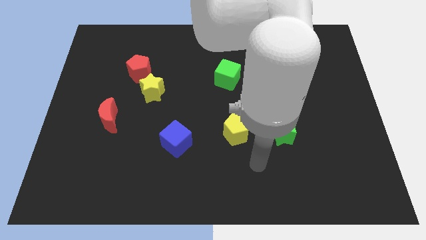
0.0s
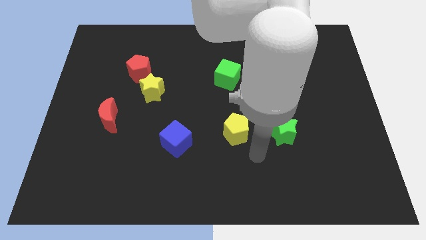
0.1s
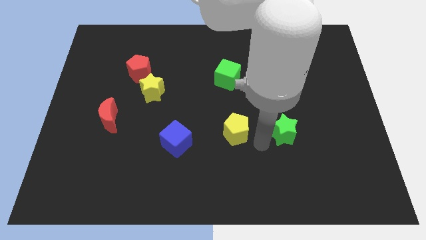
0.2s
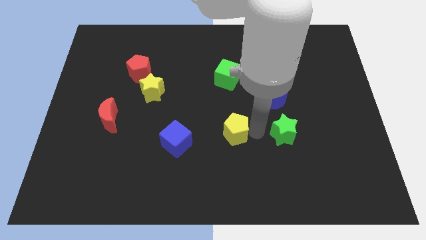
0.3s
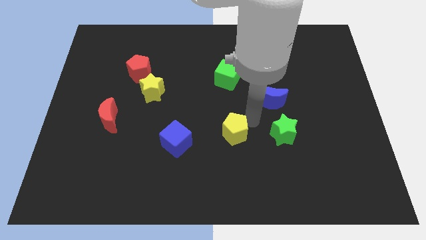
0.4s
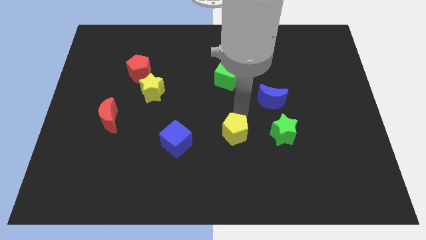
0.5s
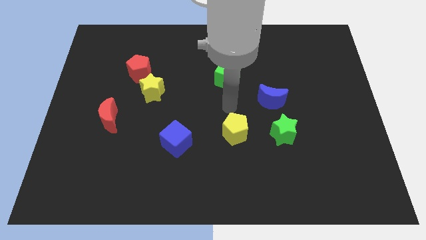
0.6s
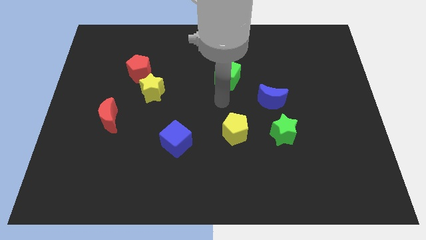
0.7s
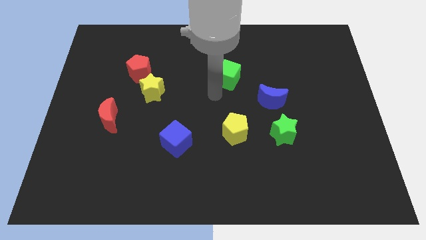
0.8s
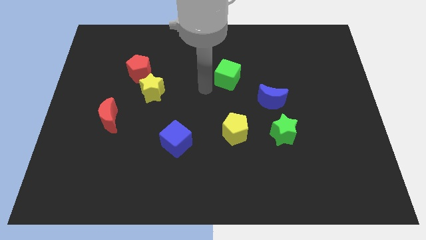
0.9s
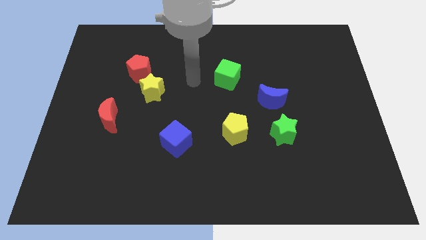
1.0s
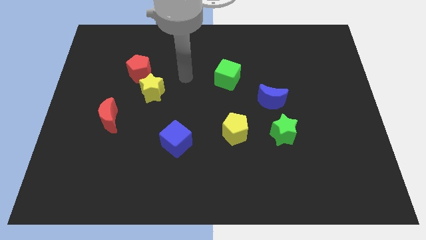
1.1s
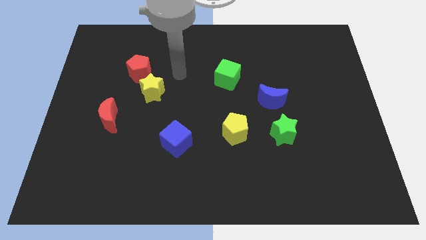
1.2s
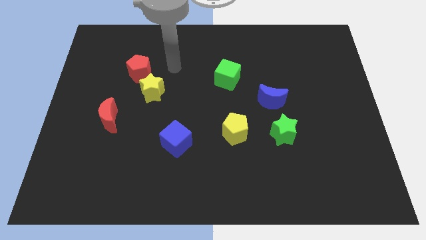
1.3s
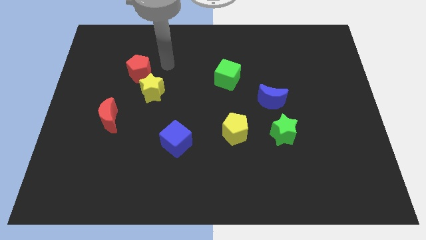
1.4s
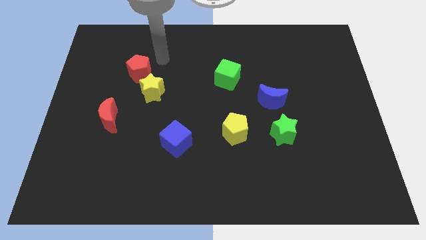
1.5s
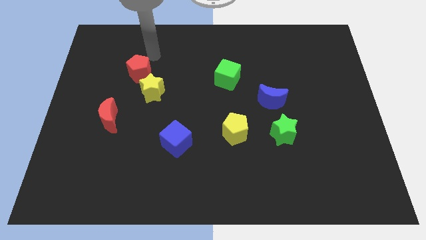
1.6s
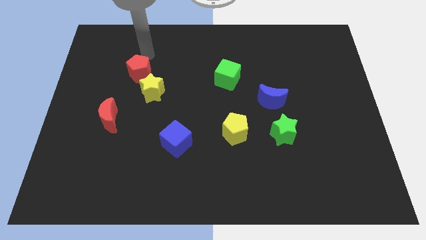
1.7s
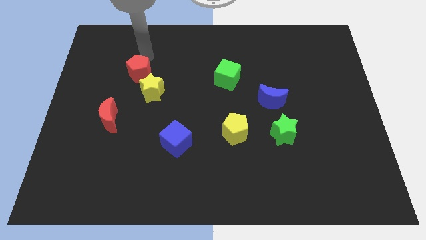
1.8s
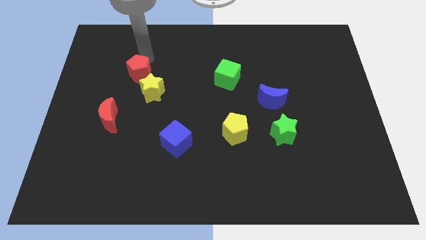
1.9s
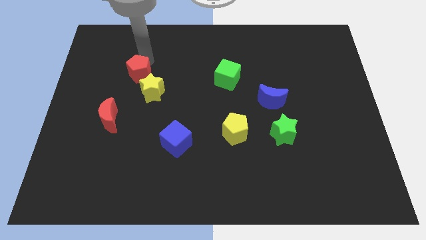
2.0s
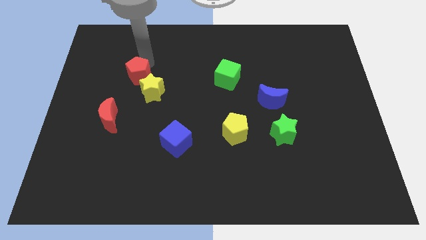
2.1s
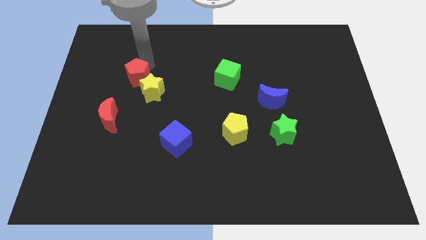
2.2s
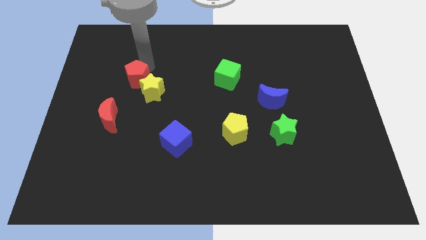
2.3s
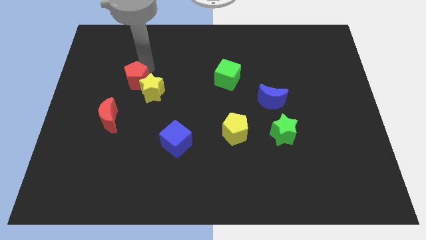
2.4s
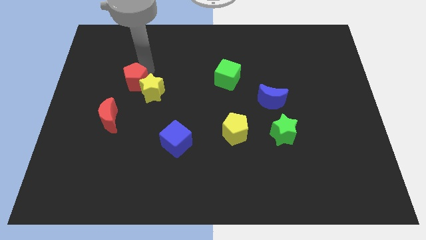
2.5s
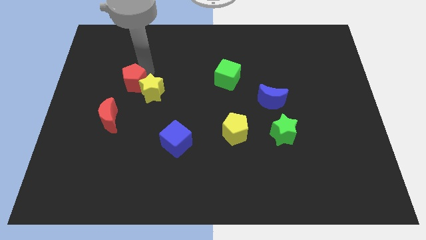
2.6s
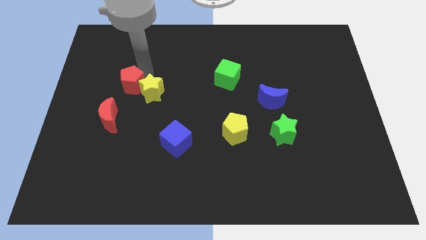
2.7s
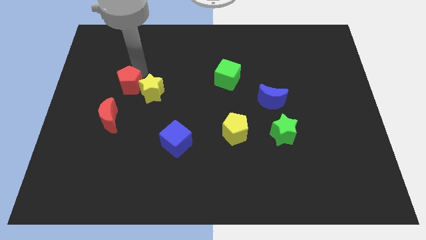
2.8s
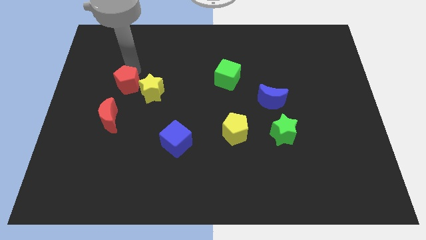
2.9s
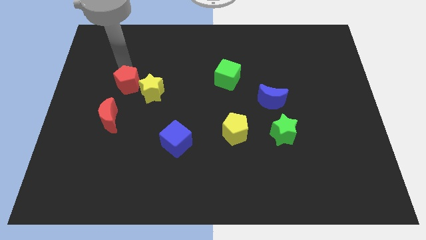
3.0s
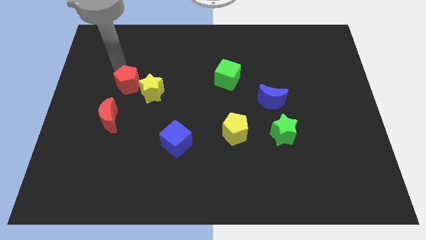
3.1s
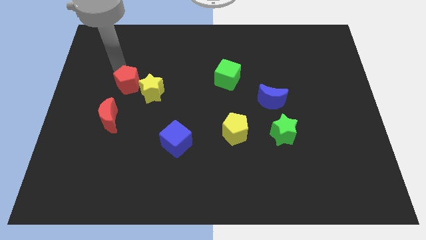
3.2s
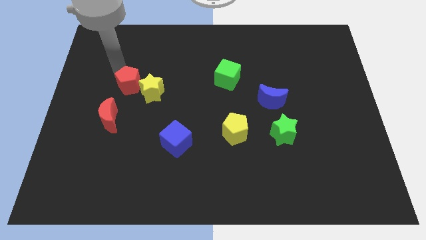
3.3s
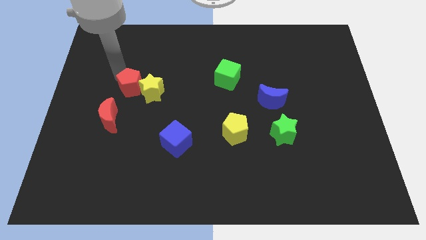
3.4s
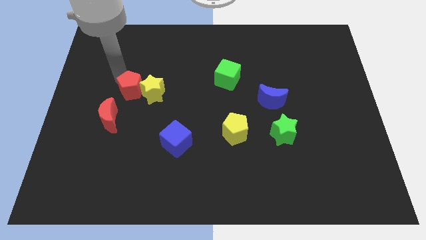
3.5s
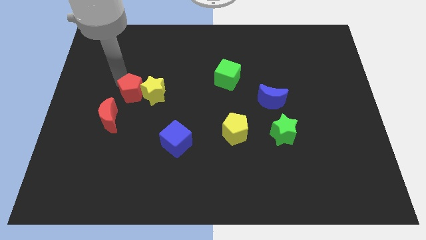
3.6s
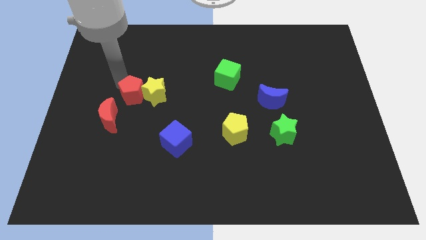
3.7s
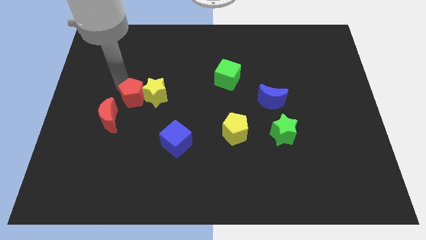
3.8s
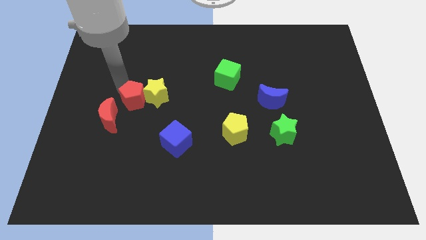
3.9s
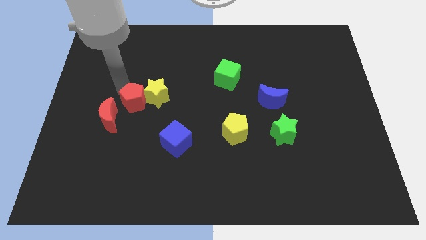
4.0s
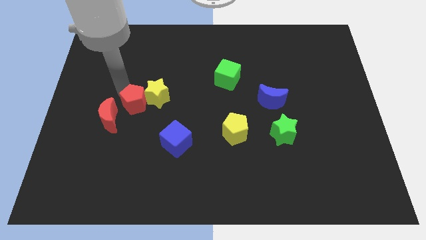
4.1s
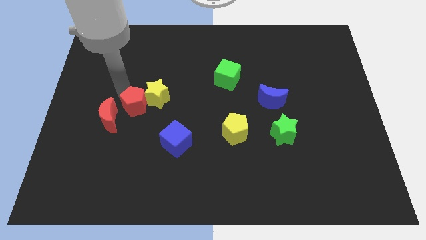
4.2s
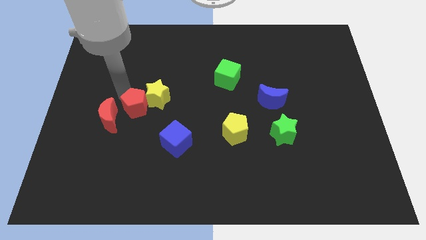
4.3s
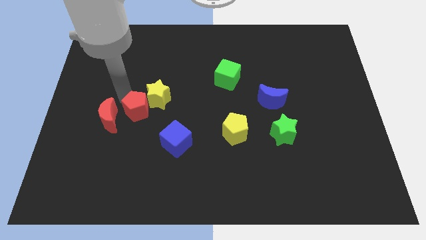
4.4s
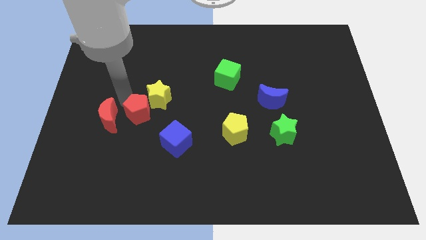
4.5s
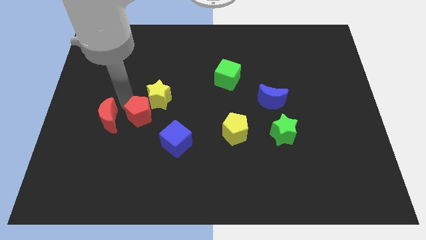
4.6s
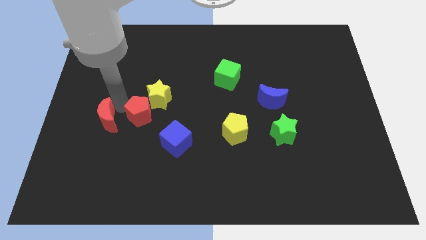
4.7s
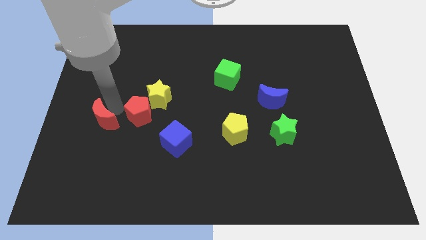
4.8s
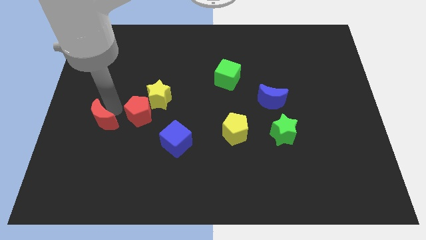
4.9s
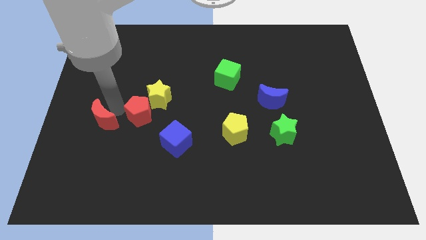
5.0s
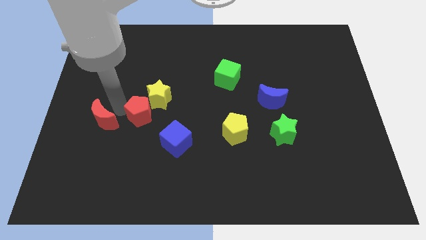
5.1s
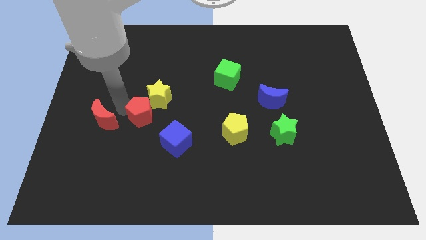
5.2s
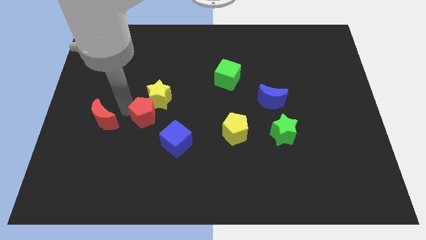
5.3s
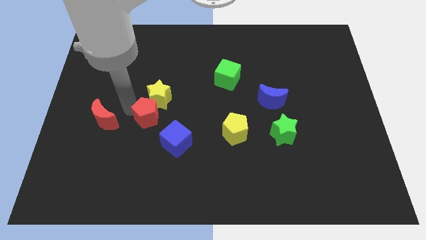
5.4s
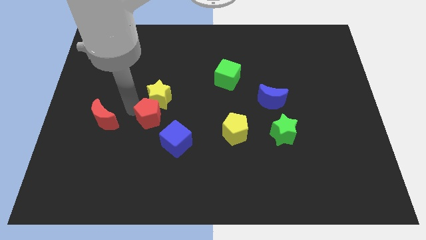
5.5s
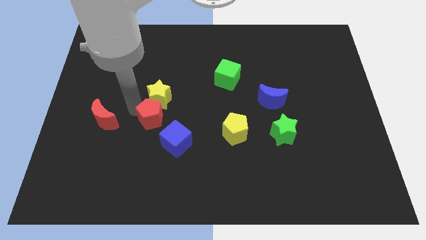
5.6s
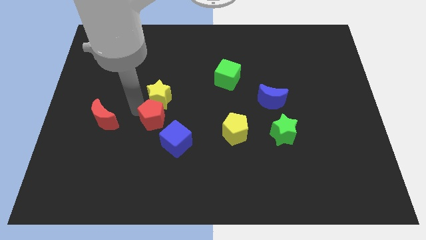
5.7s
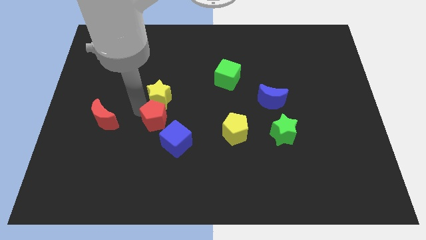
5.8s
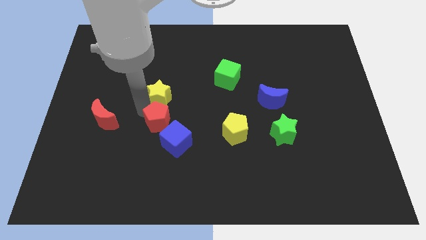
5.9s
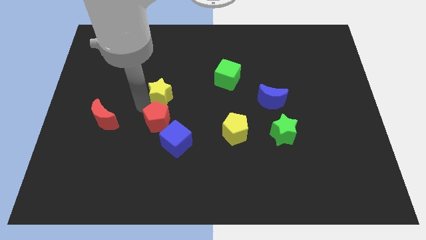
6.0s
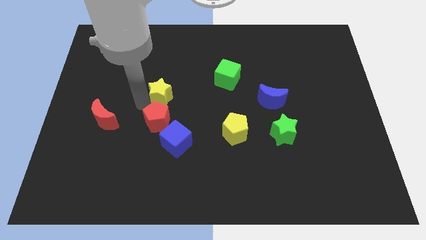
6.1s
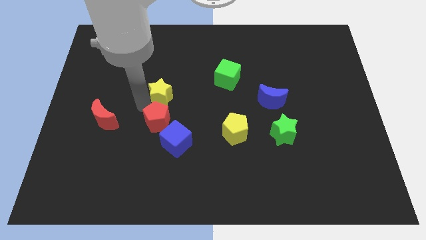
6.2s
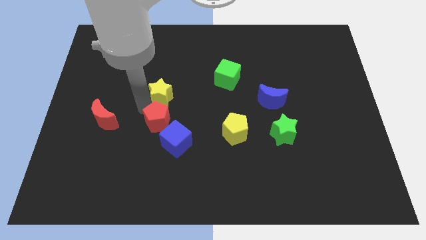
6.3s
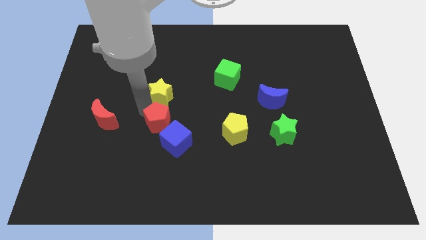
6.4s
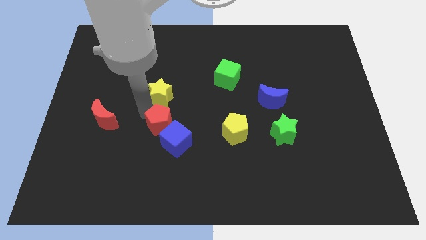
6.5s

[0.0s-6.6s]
move the red pentagon towards the blue cube

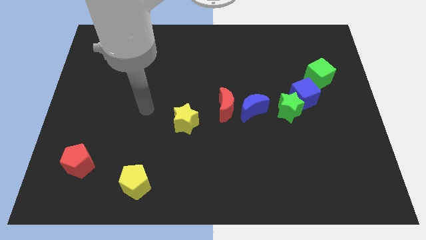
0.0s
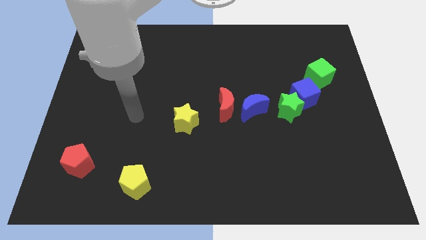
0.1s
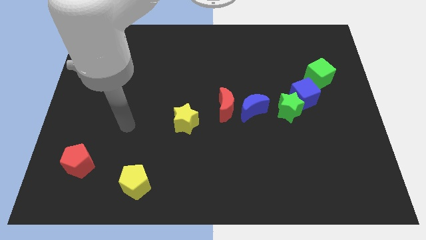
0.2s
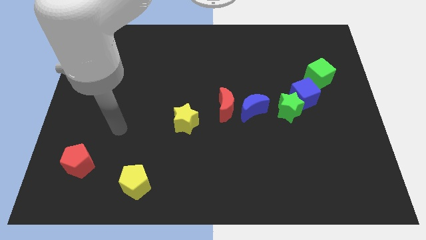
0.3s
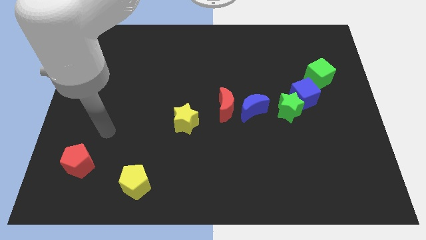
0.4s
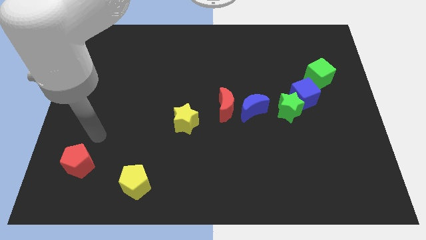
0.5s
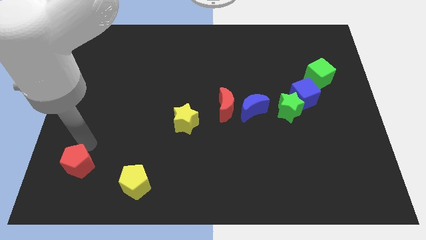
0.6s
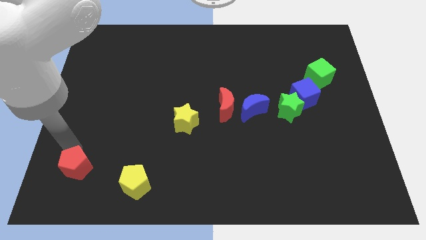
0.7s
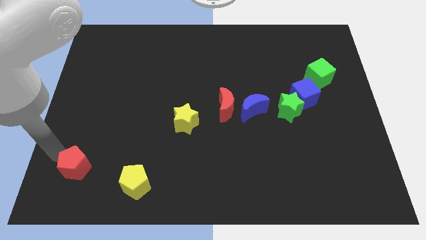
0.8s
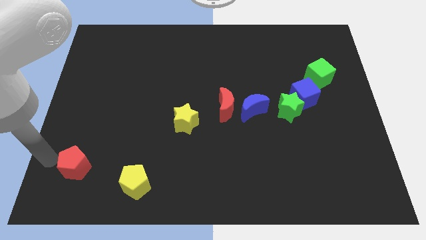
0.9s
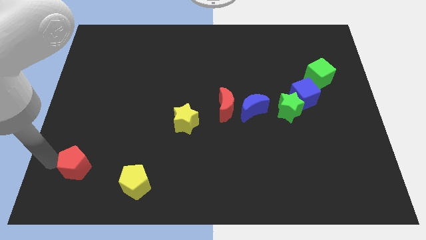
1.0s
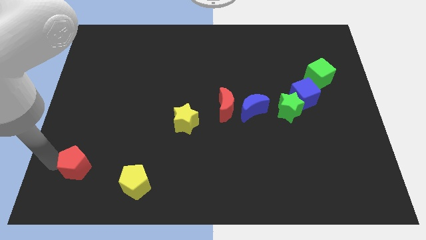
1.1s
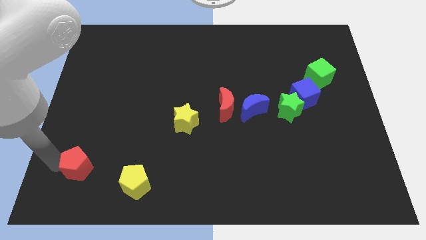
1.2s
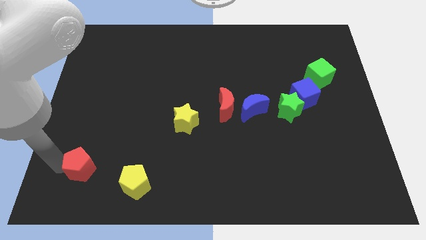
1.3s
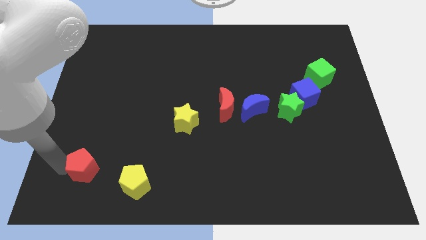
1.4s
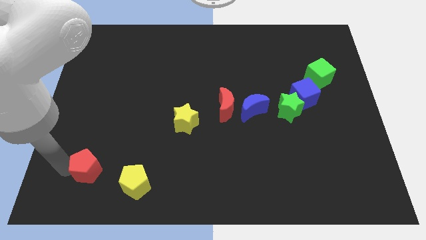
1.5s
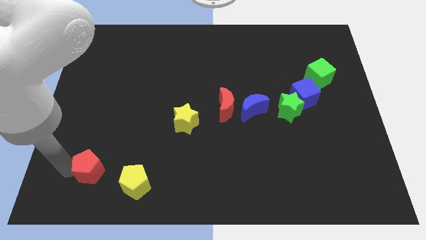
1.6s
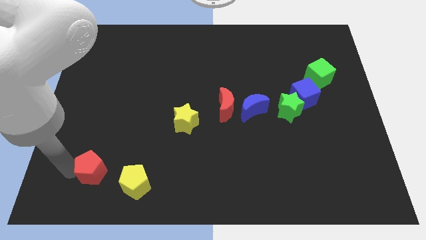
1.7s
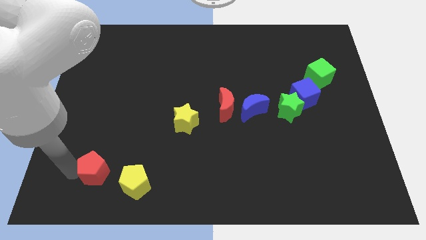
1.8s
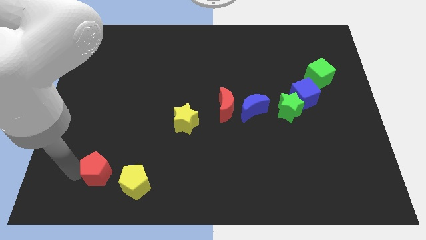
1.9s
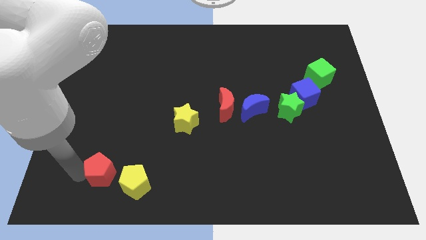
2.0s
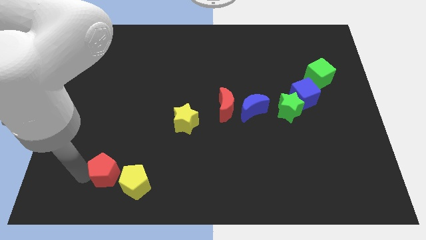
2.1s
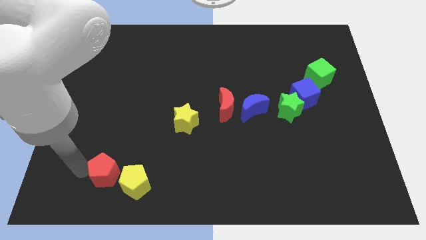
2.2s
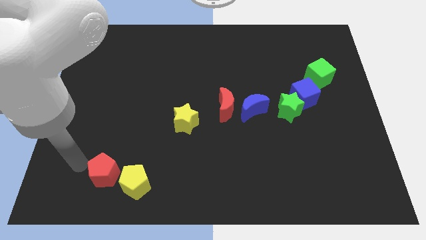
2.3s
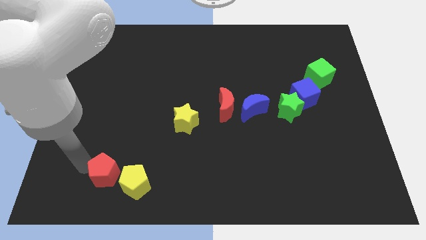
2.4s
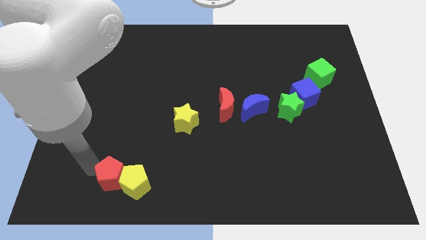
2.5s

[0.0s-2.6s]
put the red pentagon towards the yellow pentagon

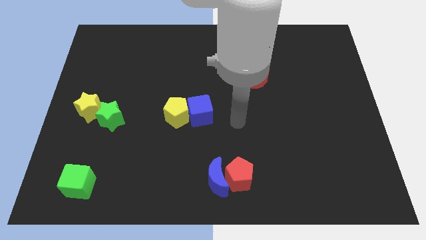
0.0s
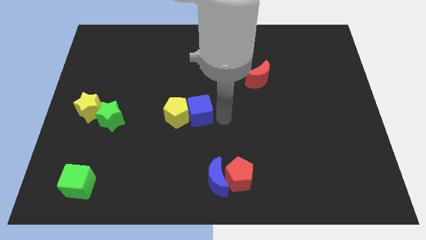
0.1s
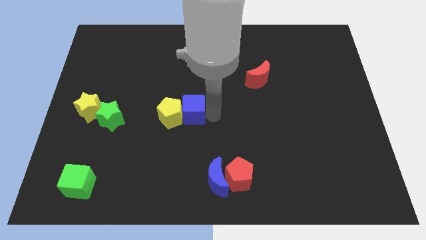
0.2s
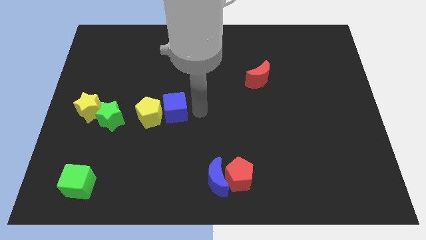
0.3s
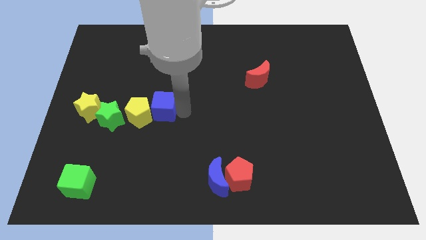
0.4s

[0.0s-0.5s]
put the yellow pentagon close to the green star
